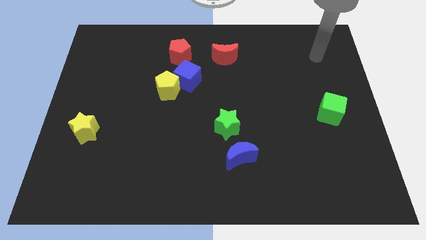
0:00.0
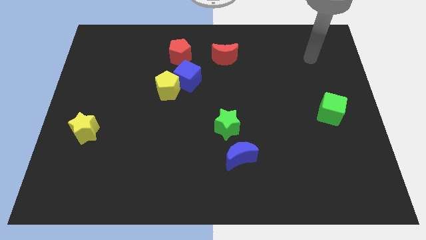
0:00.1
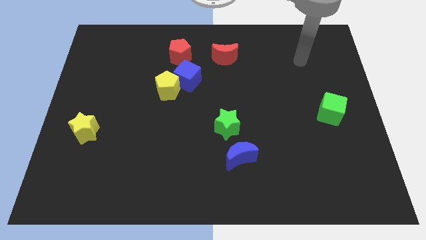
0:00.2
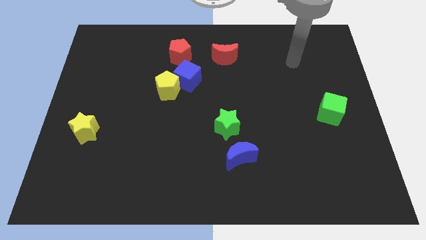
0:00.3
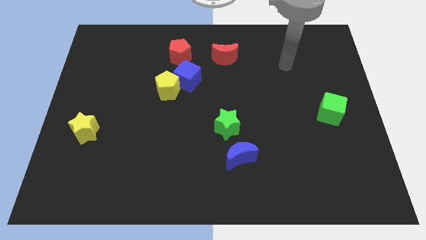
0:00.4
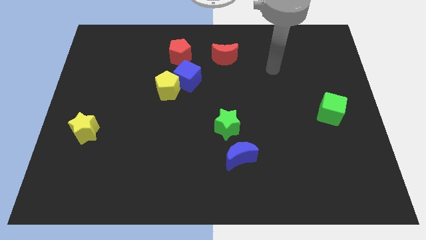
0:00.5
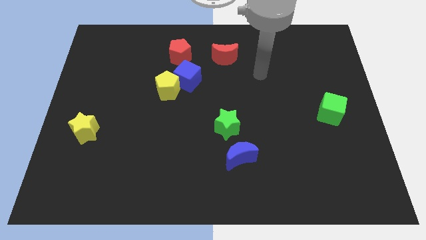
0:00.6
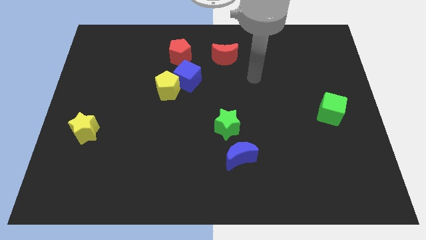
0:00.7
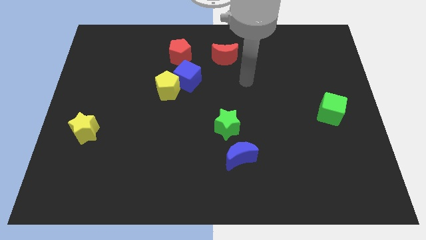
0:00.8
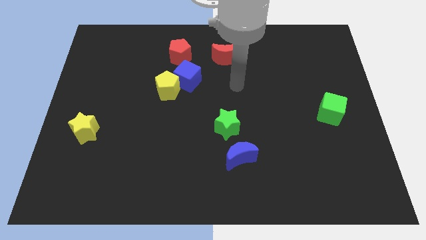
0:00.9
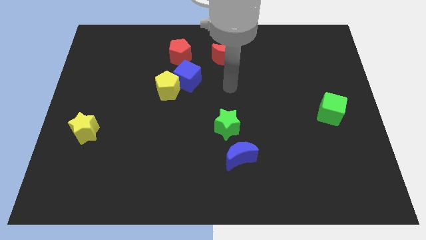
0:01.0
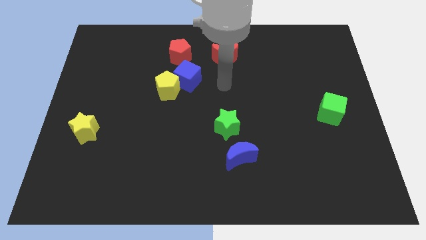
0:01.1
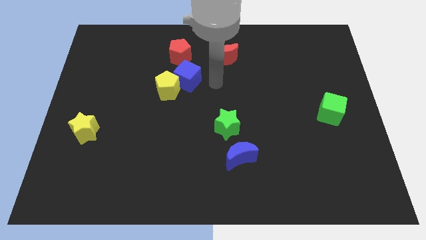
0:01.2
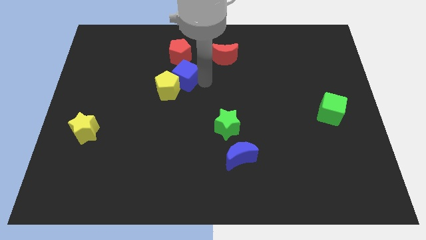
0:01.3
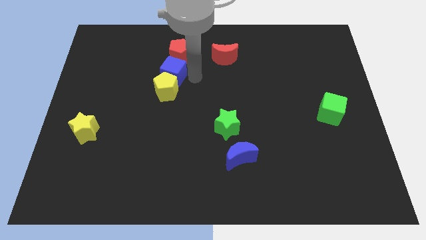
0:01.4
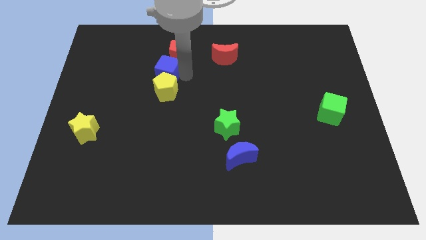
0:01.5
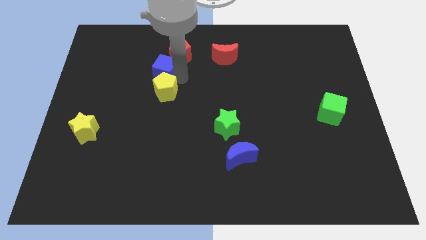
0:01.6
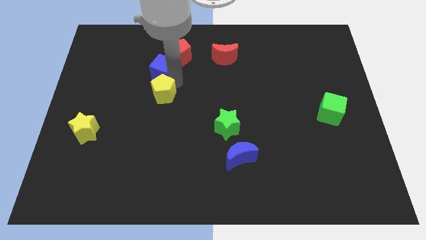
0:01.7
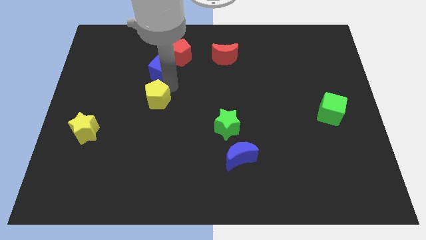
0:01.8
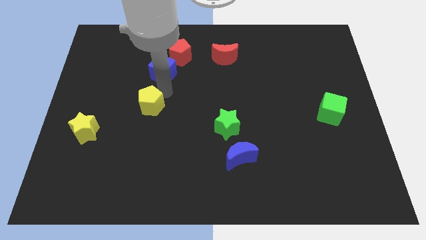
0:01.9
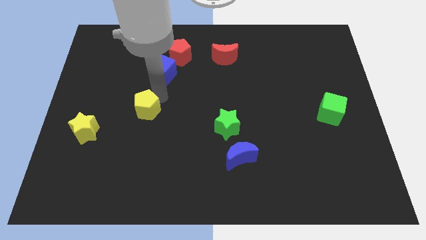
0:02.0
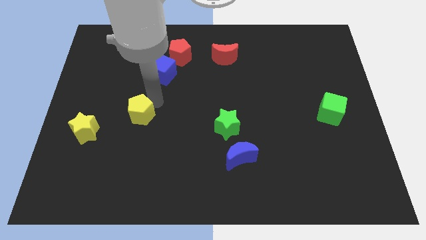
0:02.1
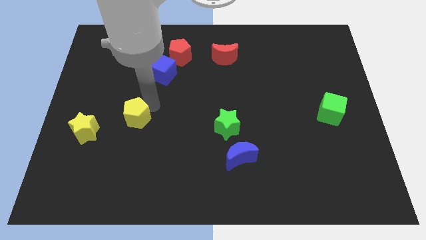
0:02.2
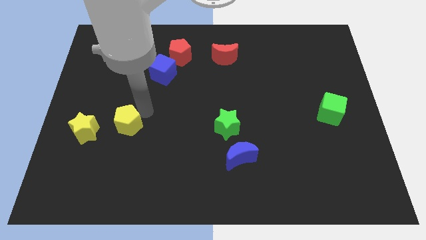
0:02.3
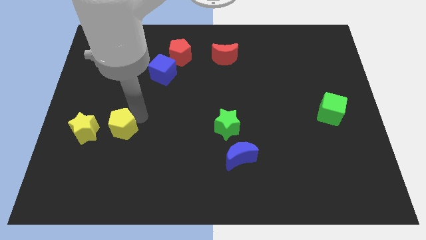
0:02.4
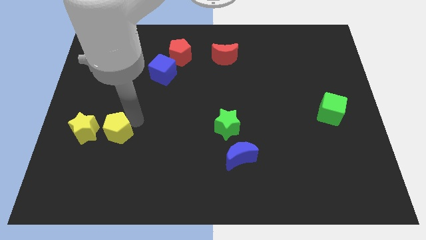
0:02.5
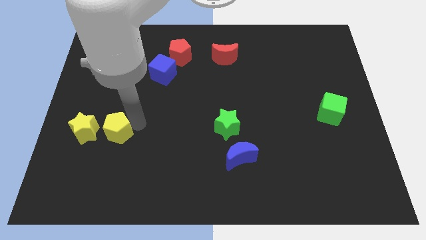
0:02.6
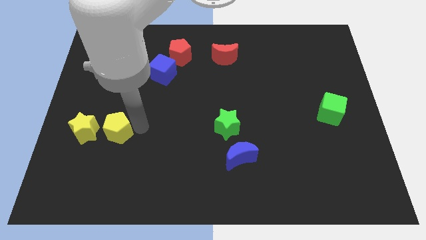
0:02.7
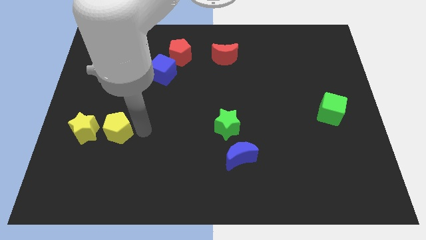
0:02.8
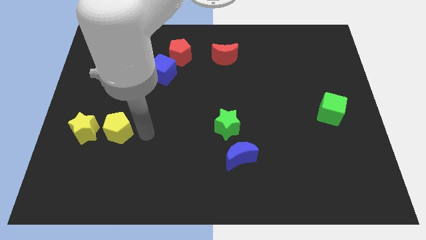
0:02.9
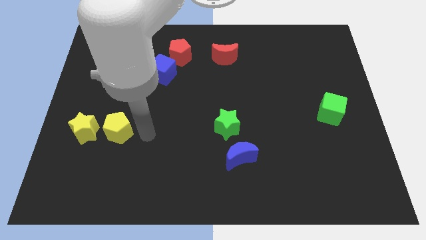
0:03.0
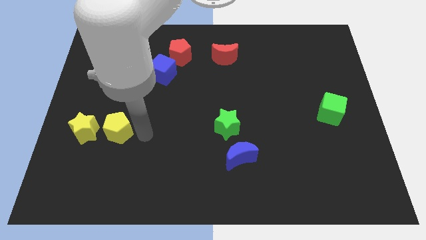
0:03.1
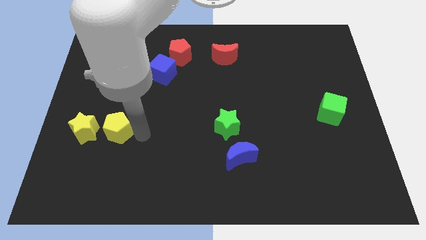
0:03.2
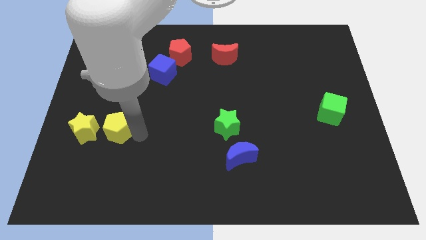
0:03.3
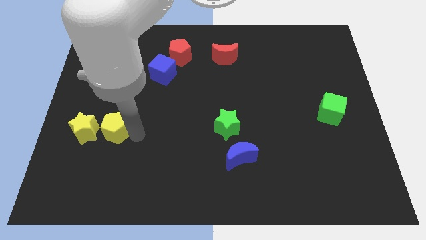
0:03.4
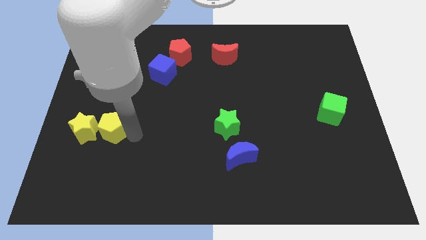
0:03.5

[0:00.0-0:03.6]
put the yellow pentagon close to the yellow star

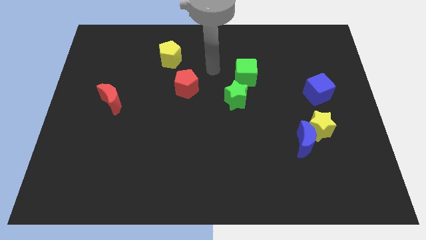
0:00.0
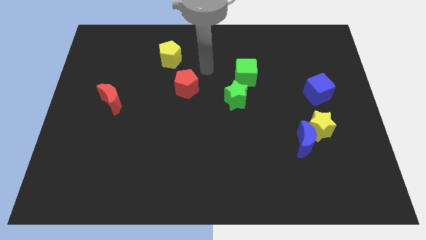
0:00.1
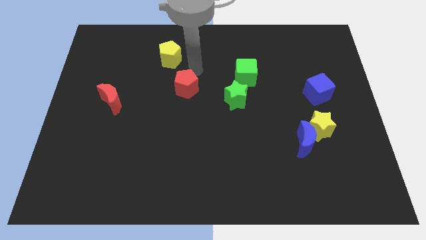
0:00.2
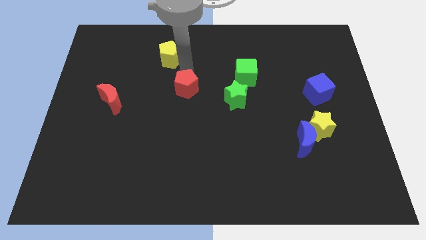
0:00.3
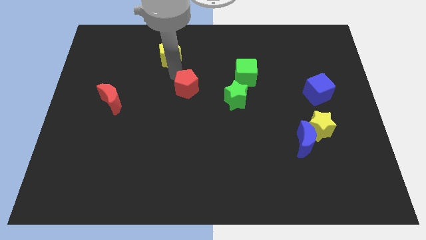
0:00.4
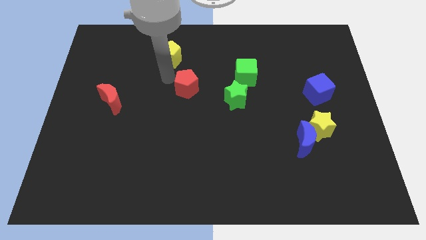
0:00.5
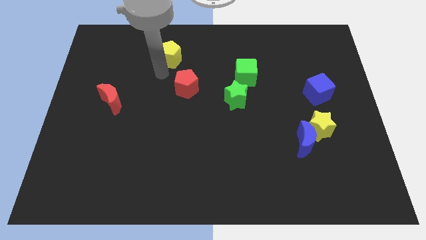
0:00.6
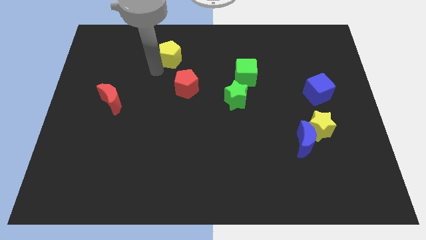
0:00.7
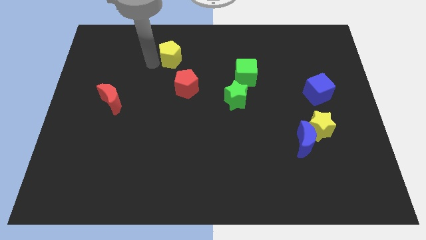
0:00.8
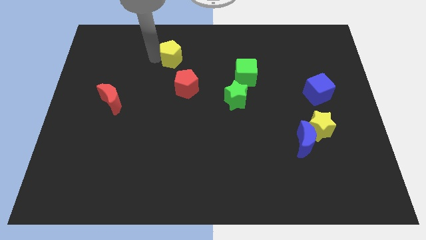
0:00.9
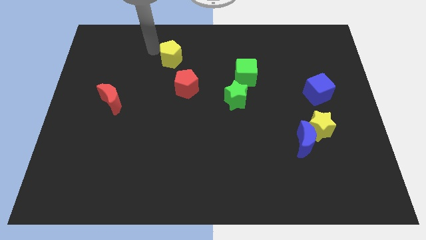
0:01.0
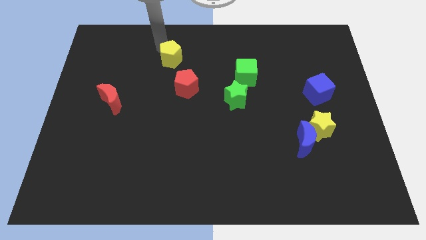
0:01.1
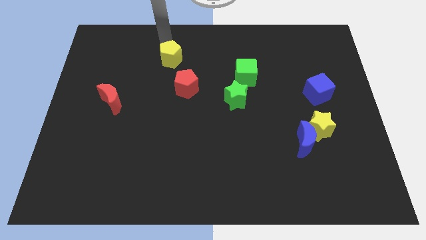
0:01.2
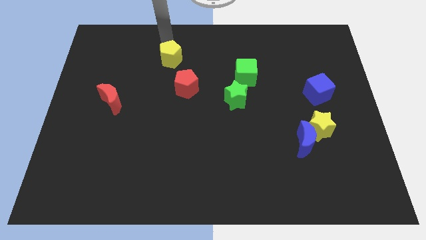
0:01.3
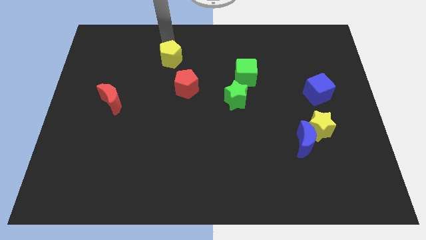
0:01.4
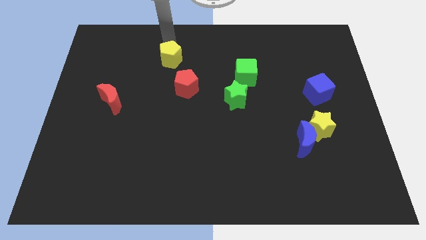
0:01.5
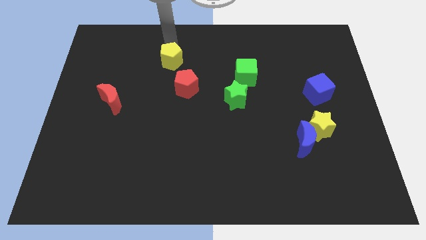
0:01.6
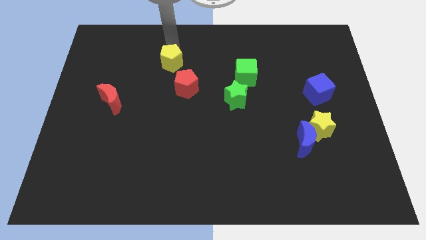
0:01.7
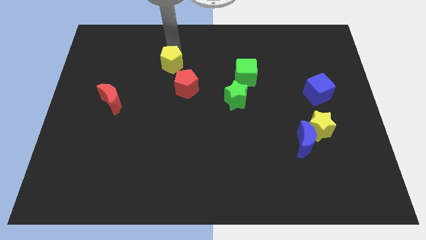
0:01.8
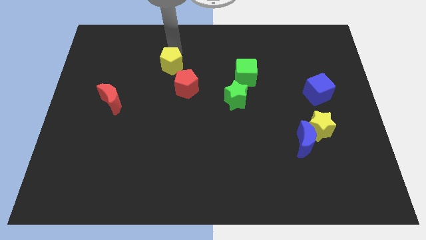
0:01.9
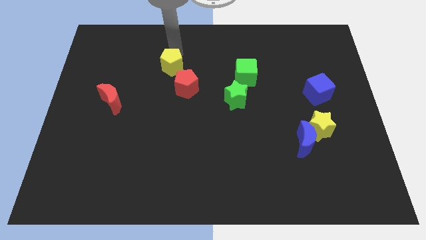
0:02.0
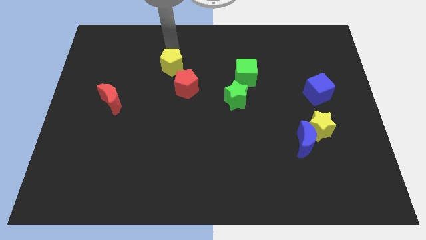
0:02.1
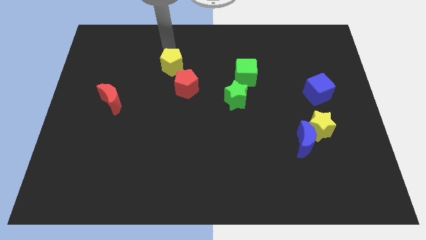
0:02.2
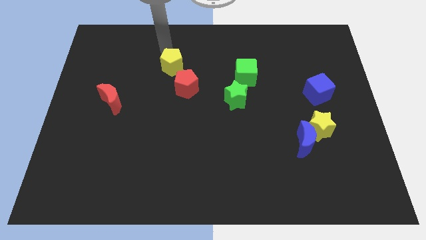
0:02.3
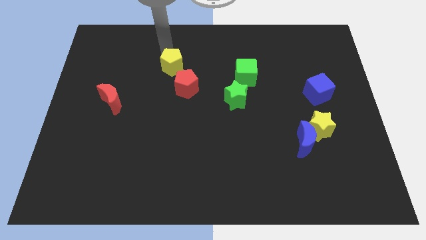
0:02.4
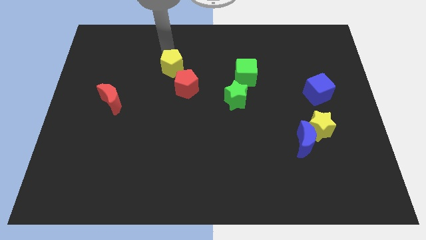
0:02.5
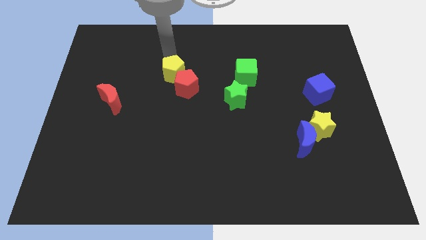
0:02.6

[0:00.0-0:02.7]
slide the yellow pentagon towards the red pentagon

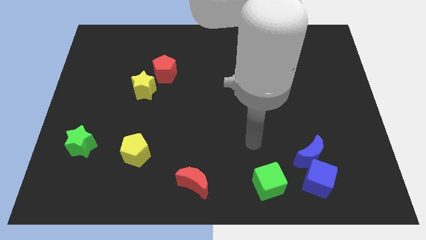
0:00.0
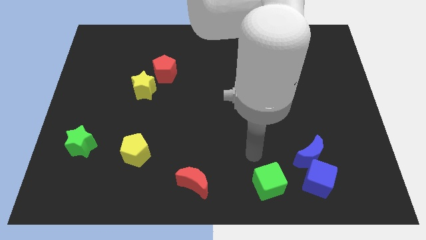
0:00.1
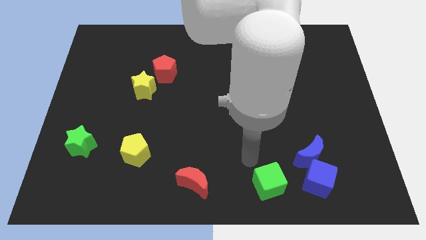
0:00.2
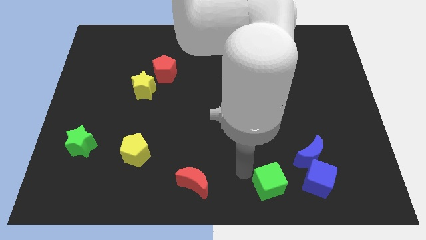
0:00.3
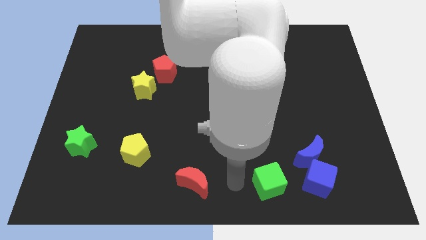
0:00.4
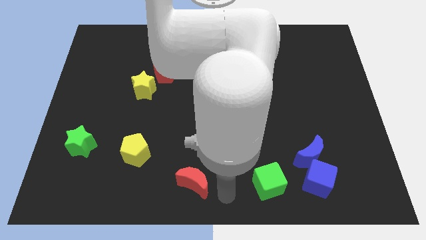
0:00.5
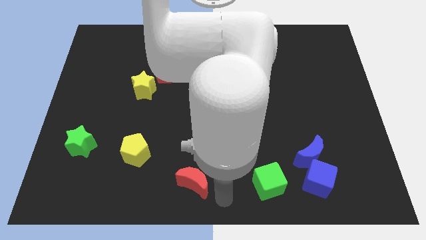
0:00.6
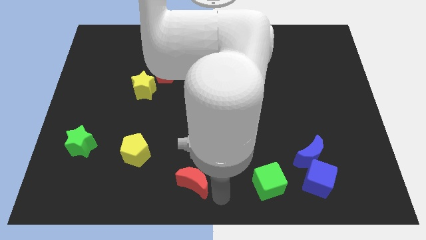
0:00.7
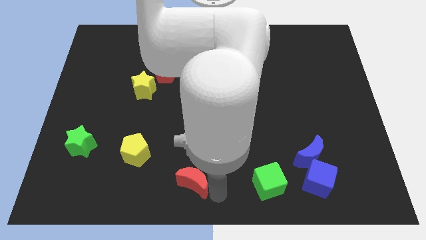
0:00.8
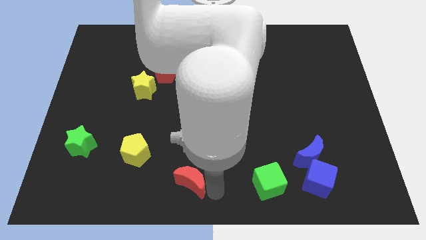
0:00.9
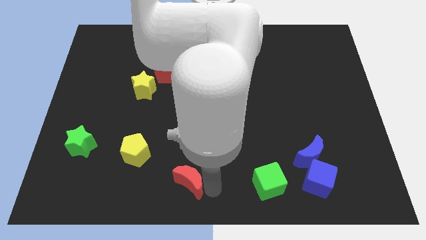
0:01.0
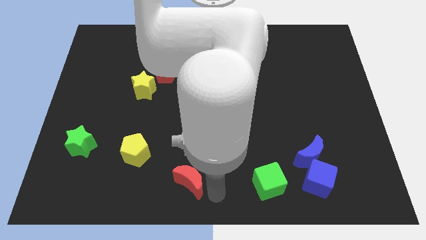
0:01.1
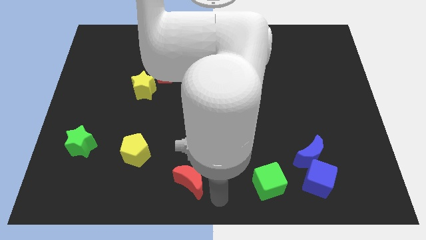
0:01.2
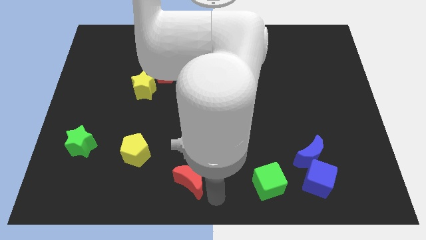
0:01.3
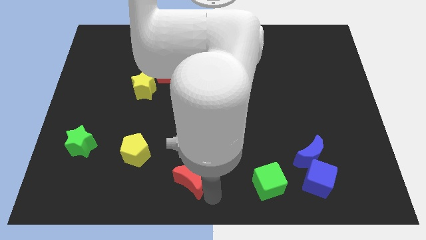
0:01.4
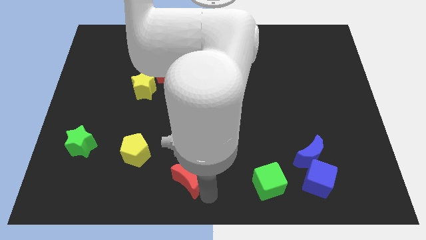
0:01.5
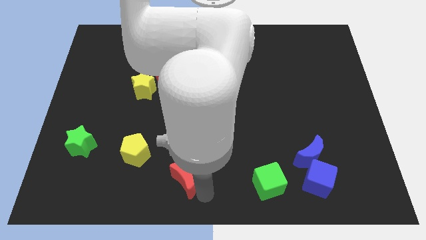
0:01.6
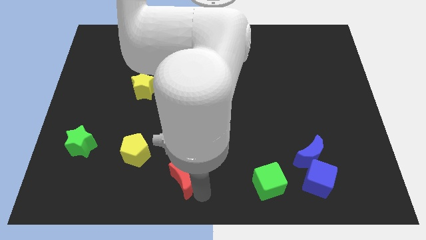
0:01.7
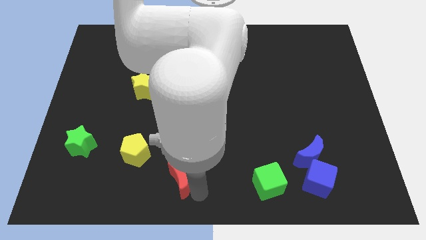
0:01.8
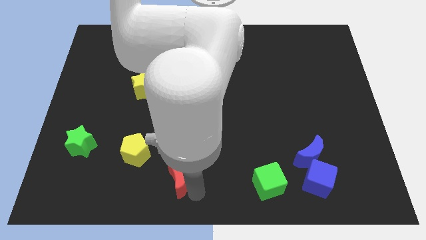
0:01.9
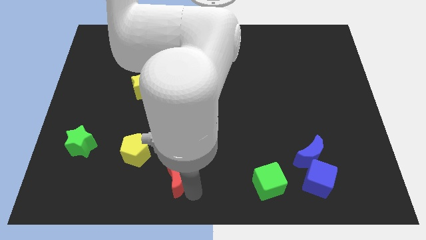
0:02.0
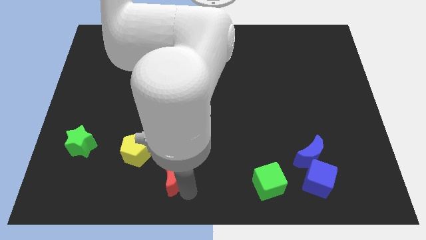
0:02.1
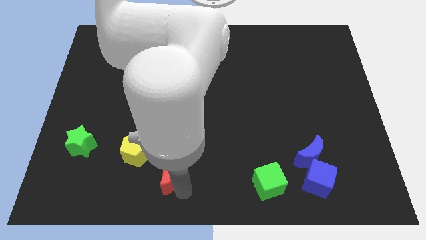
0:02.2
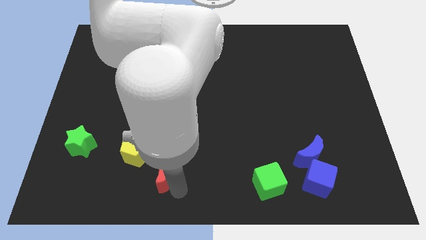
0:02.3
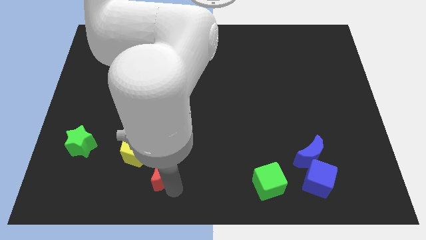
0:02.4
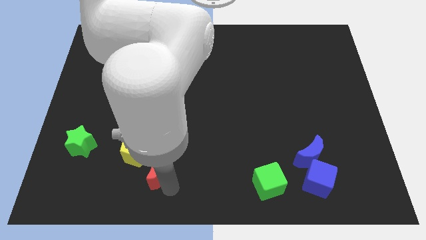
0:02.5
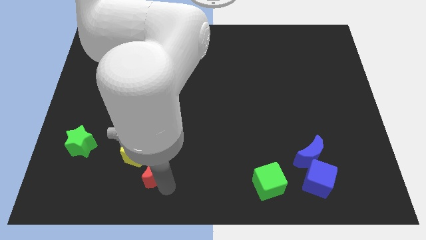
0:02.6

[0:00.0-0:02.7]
move the red moon to the yellow pentagon
